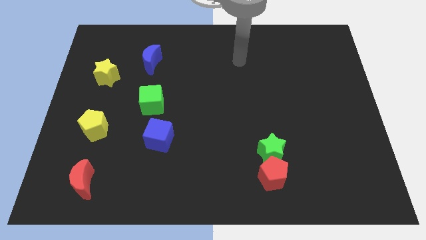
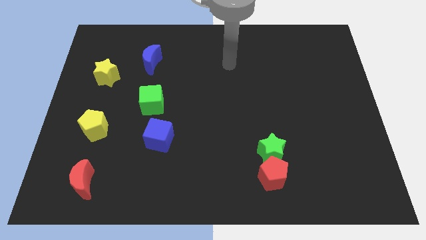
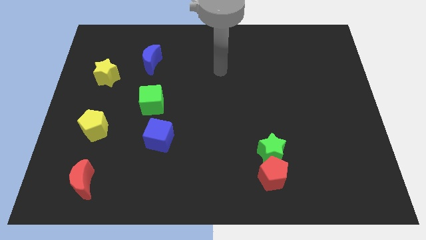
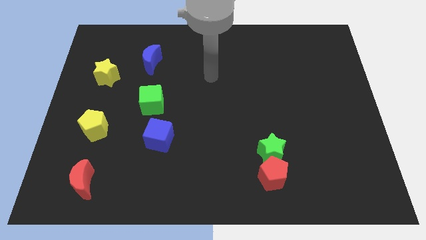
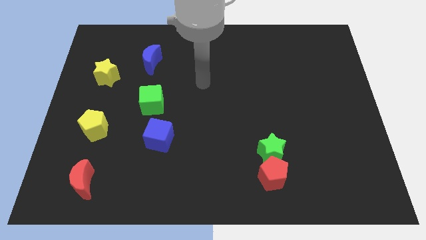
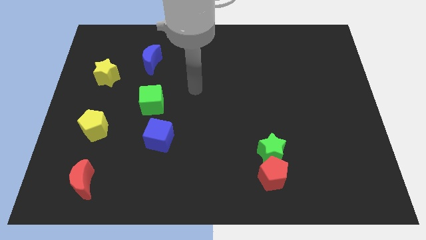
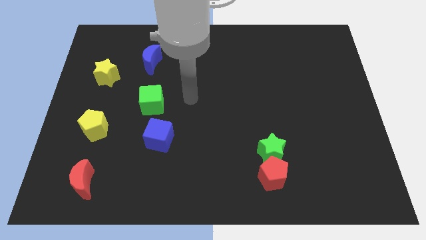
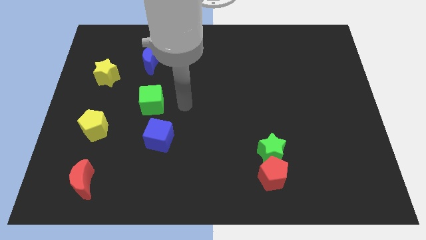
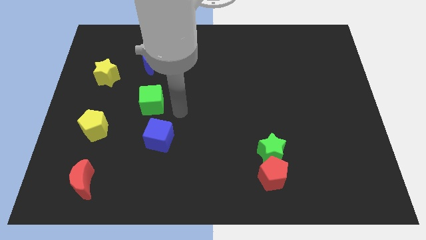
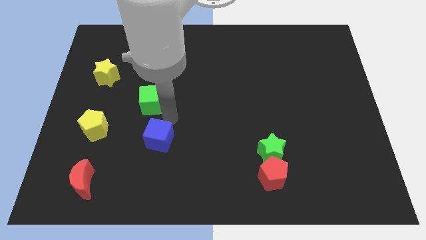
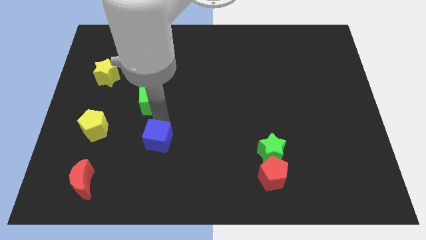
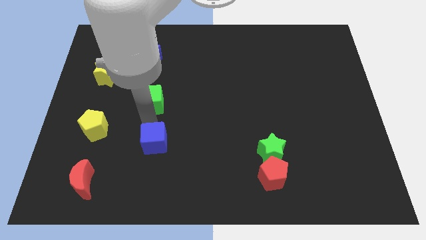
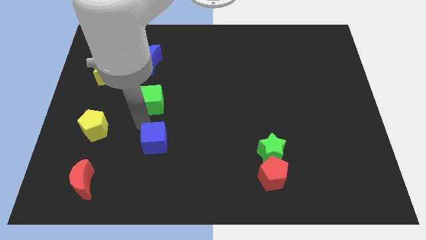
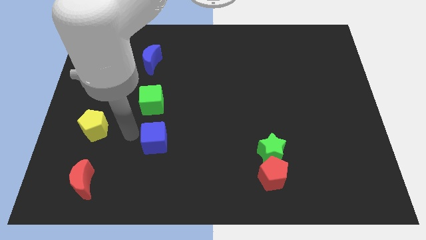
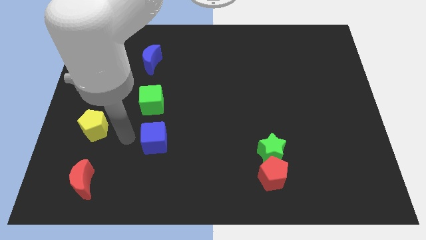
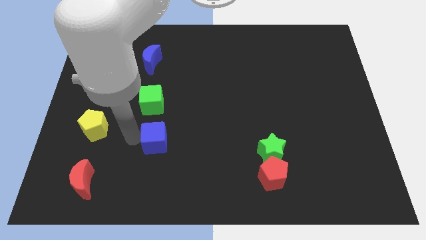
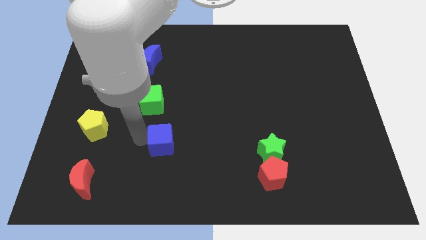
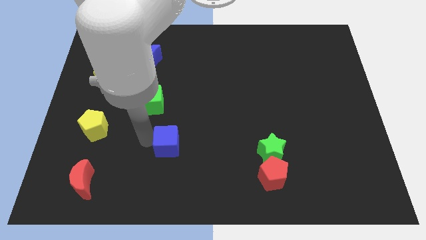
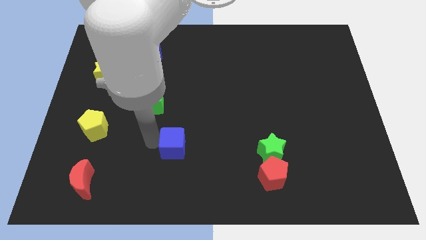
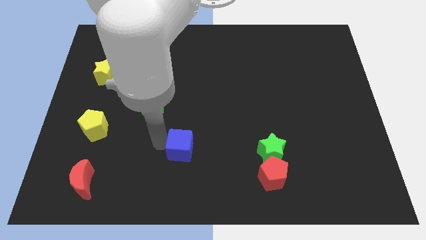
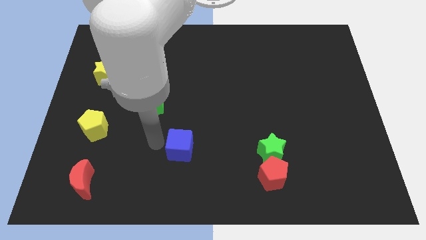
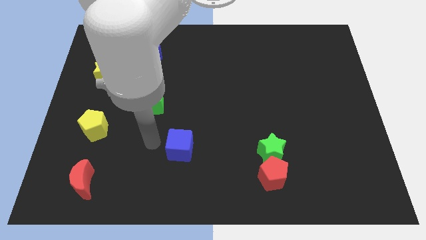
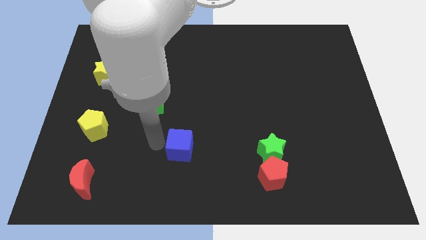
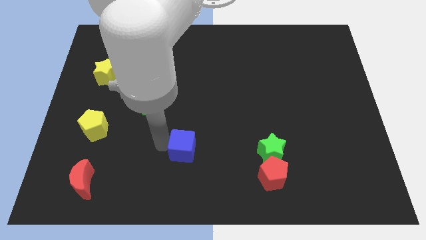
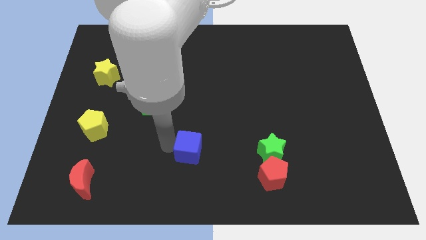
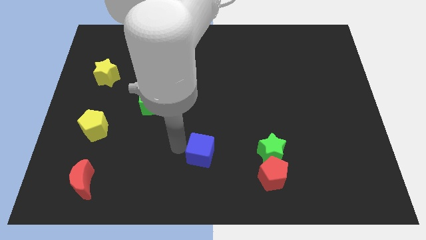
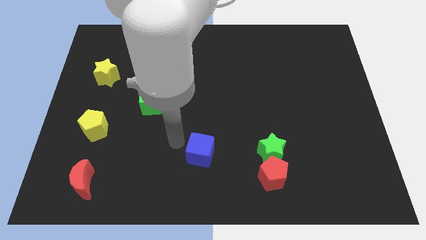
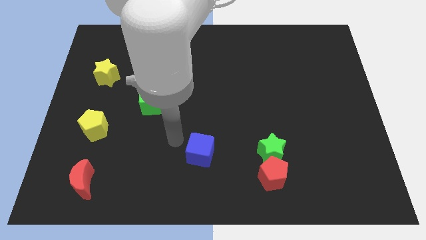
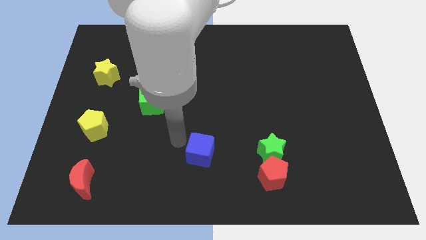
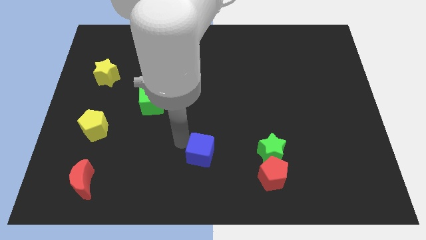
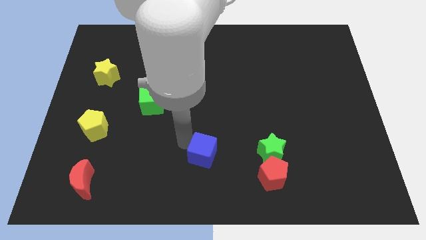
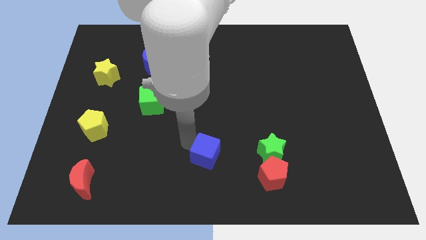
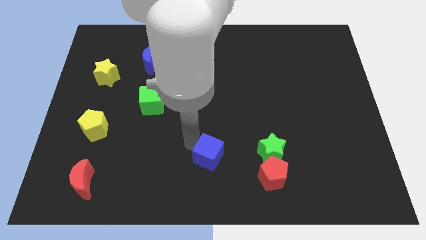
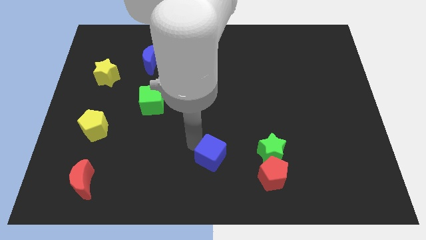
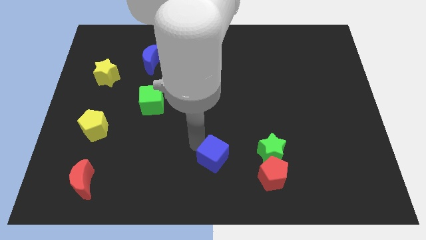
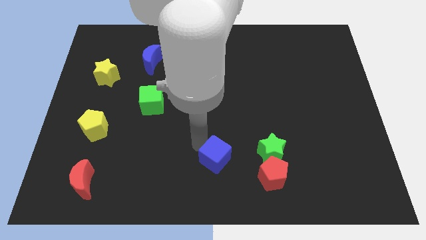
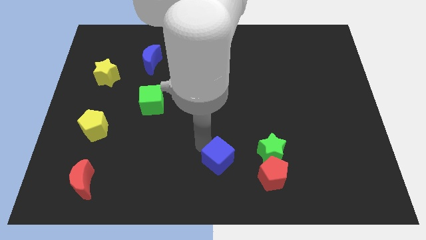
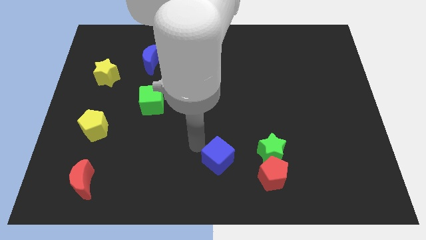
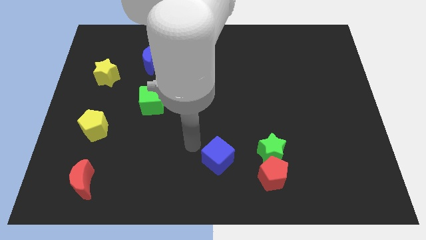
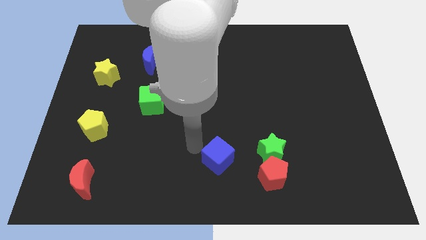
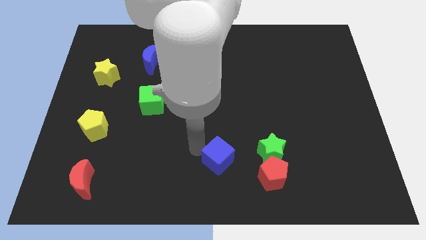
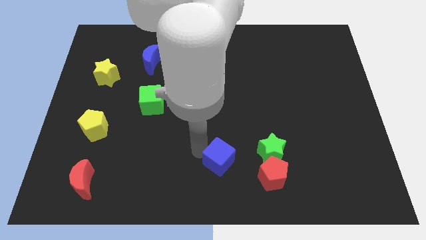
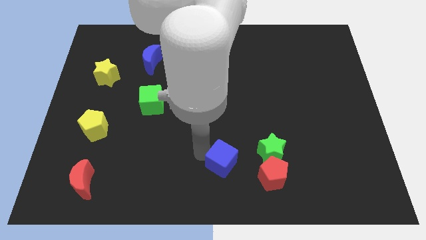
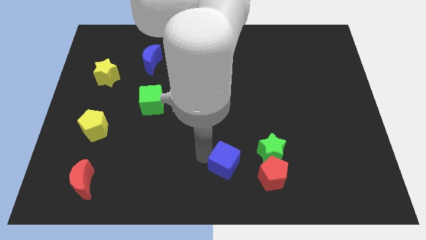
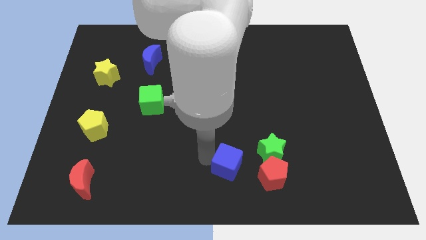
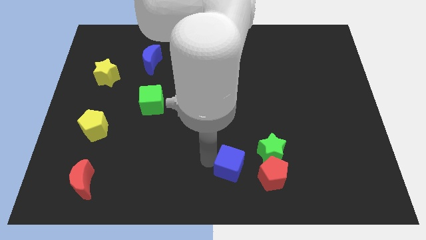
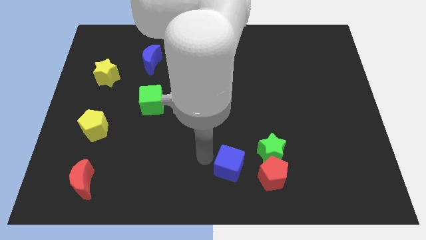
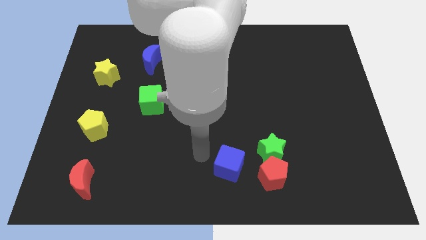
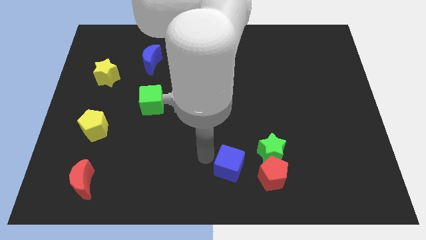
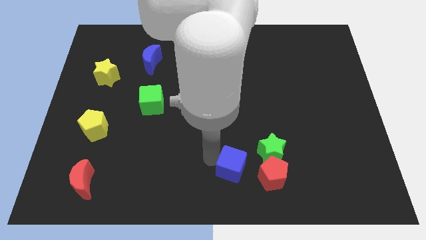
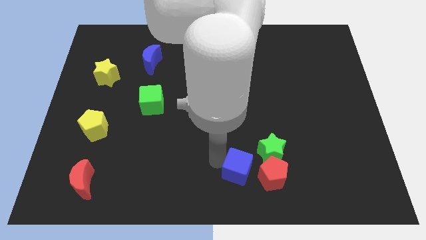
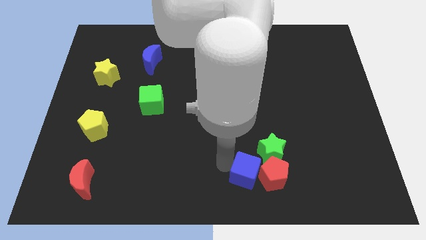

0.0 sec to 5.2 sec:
move the blue cube next to the red pentagon

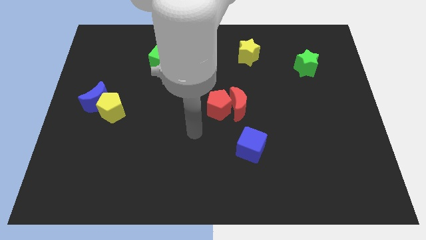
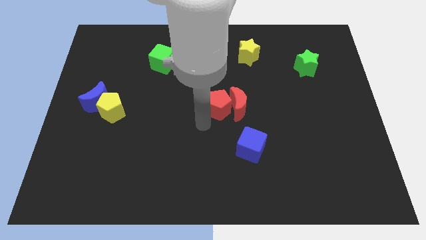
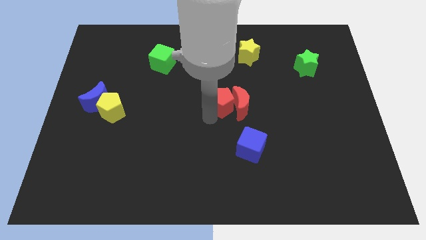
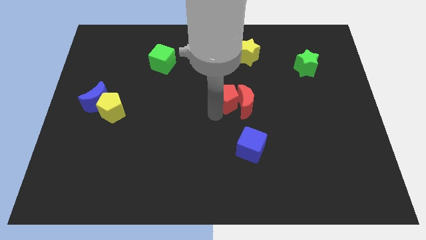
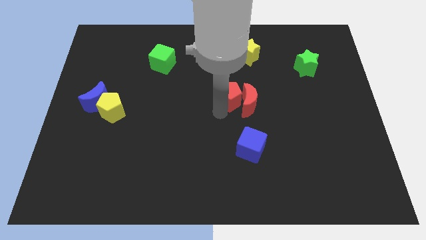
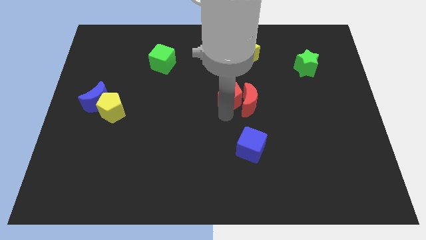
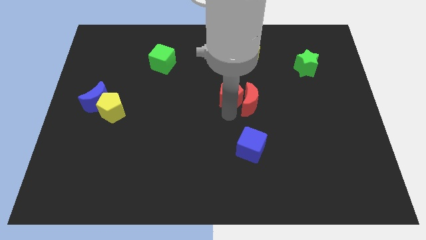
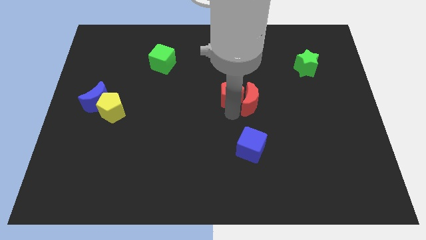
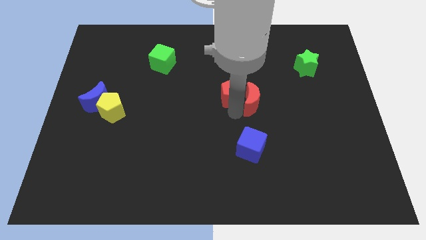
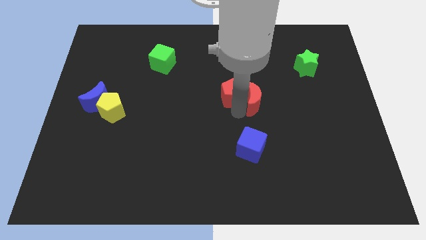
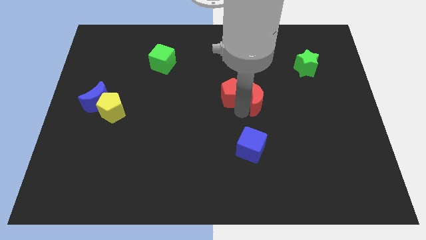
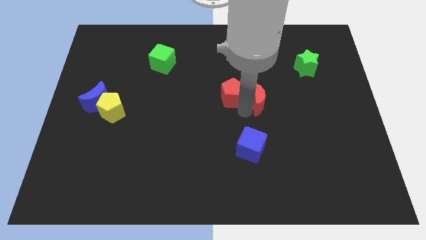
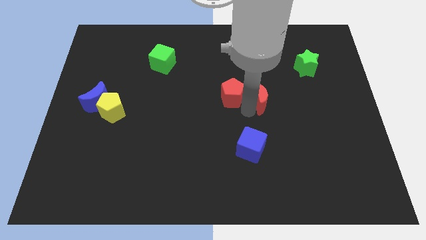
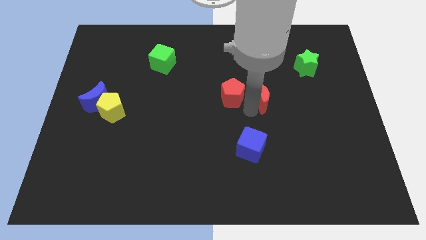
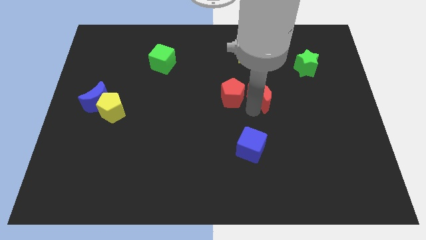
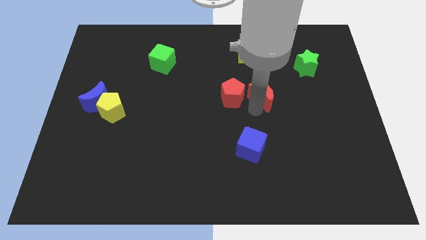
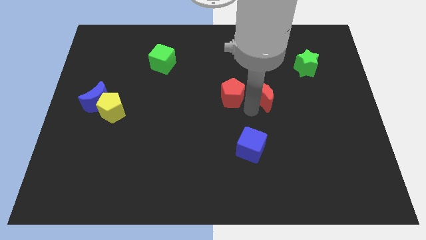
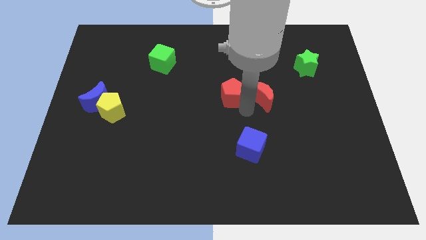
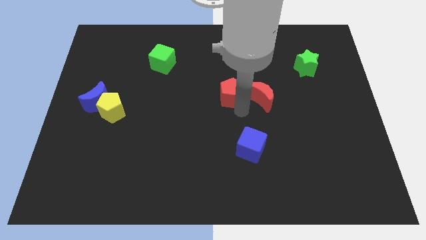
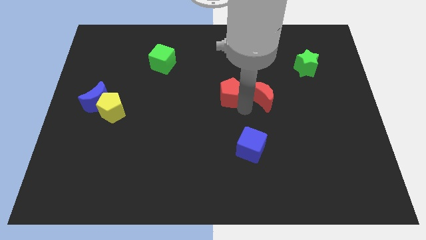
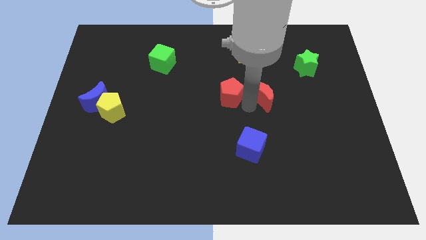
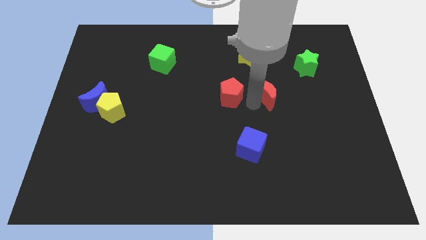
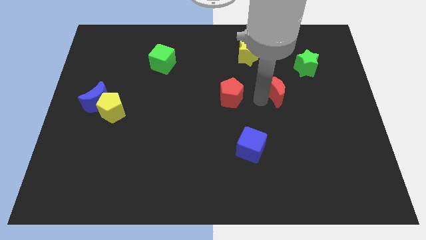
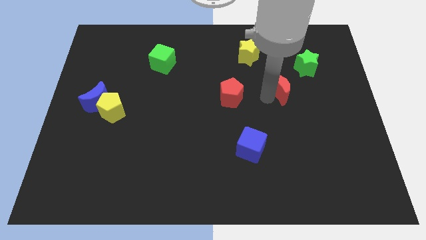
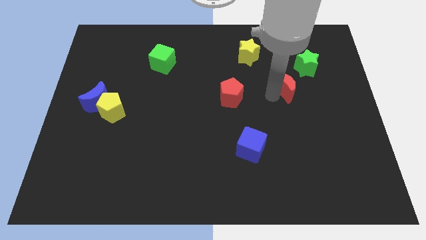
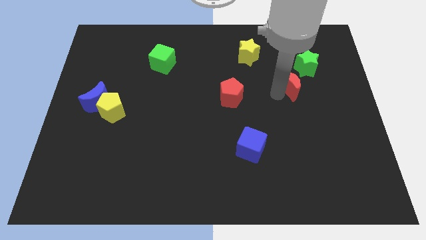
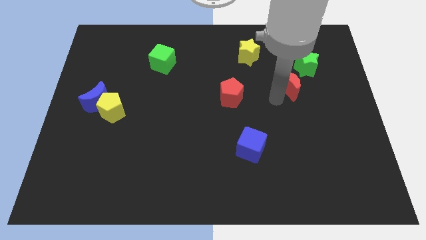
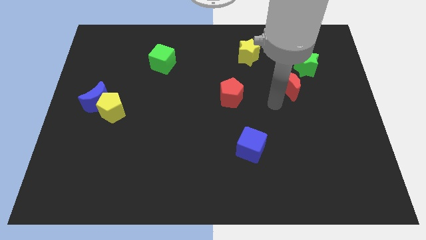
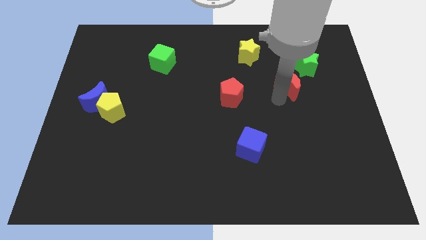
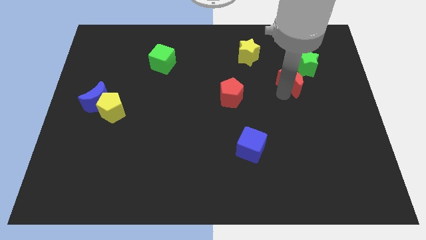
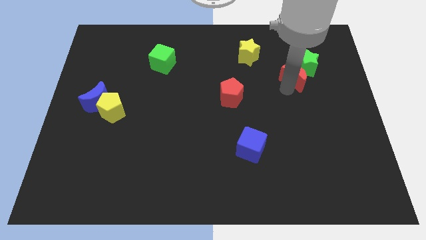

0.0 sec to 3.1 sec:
push the red moon to the green star
